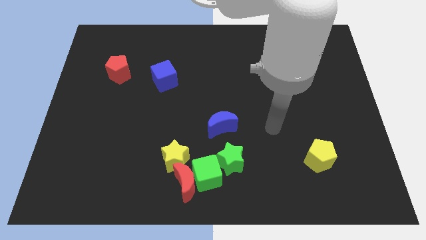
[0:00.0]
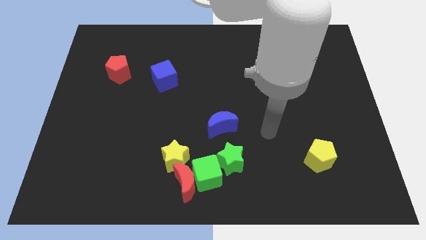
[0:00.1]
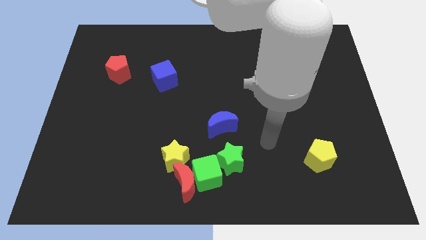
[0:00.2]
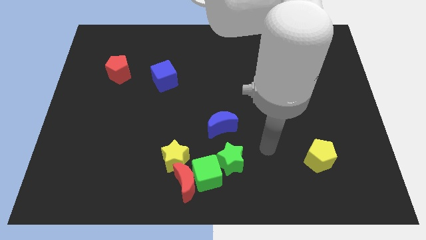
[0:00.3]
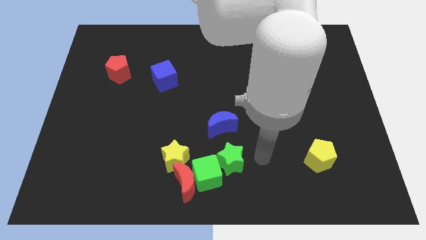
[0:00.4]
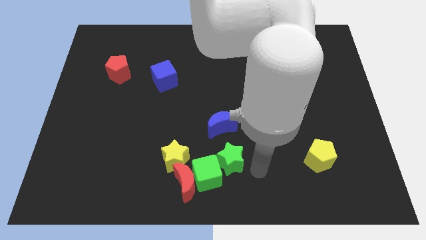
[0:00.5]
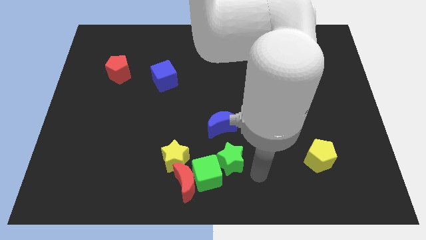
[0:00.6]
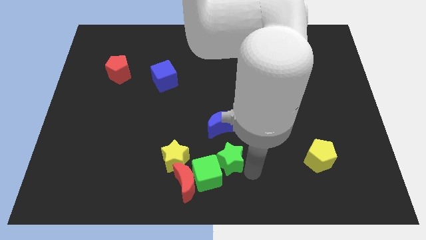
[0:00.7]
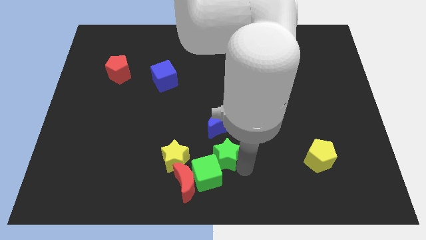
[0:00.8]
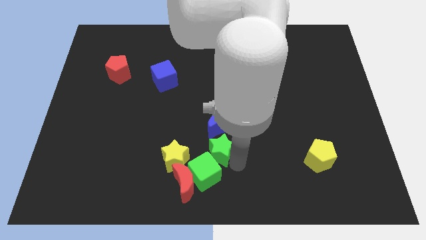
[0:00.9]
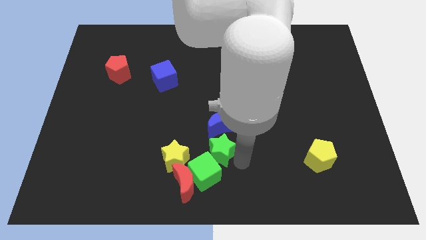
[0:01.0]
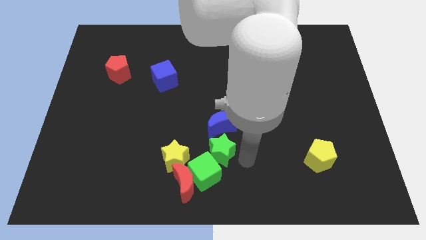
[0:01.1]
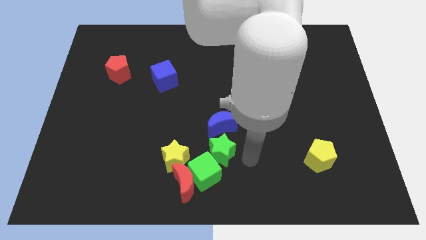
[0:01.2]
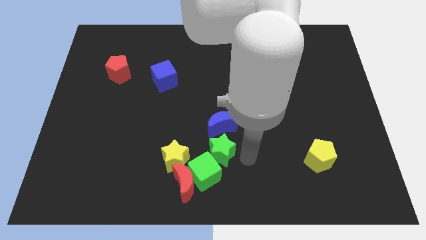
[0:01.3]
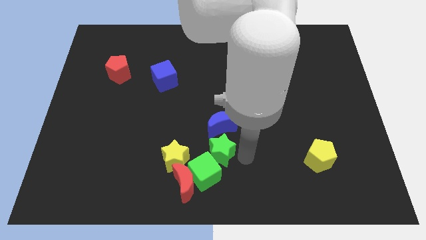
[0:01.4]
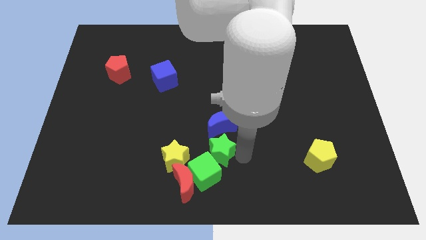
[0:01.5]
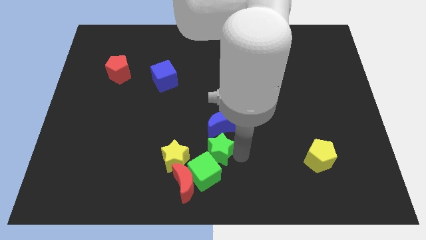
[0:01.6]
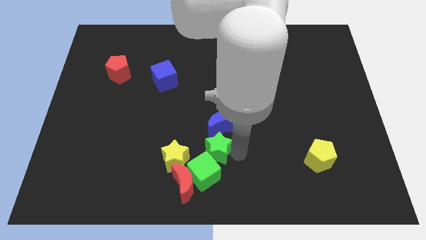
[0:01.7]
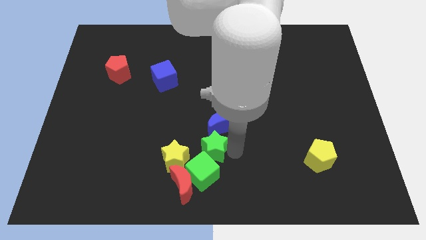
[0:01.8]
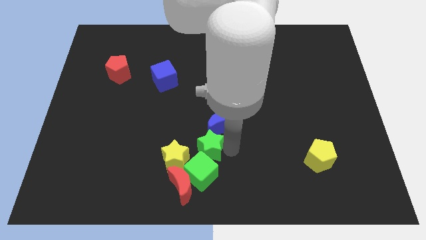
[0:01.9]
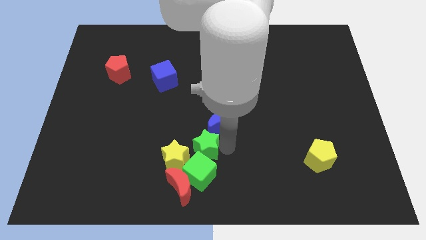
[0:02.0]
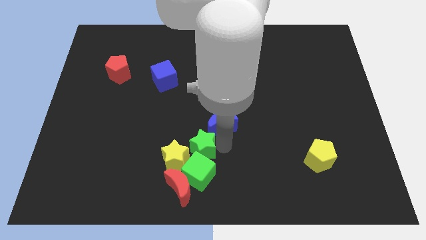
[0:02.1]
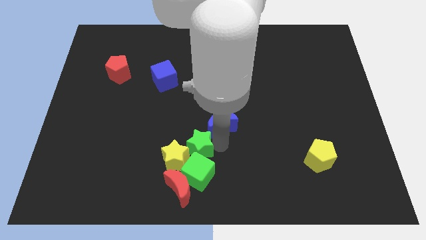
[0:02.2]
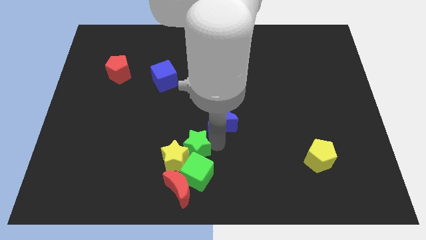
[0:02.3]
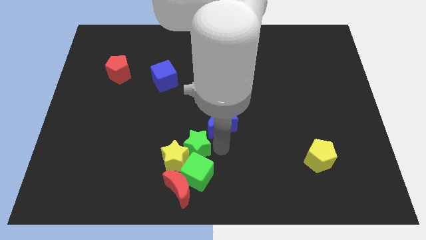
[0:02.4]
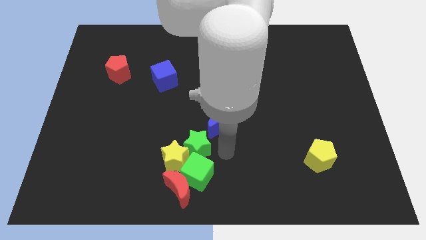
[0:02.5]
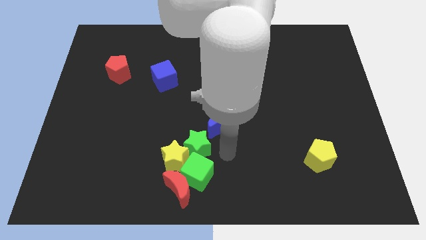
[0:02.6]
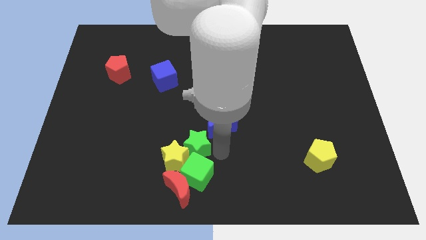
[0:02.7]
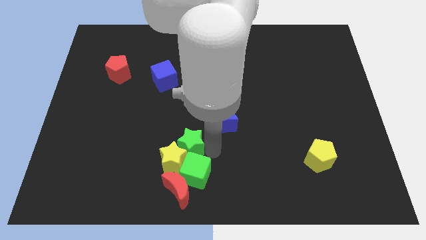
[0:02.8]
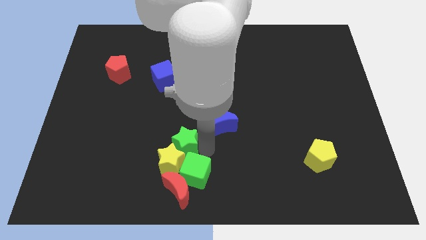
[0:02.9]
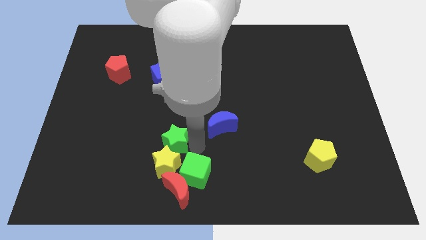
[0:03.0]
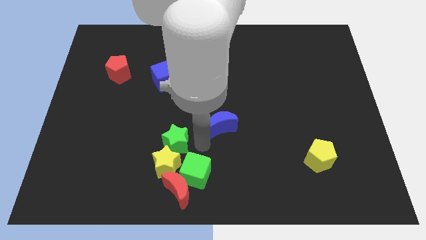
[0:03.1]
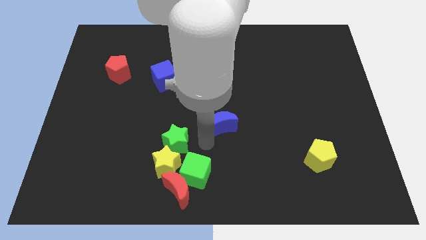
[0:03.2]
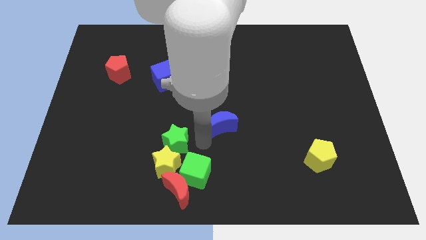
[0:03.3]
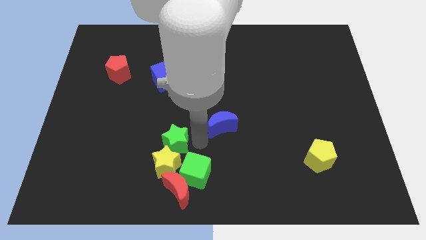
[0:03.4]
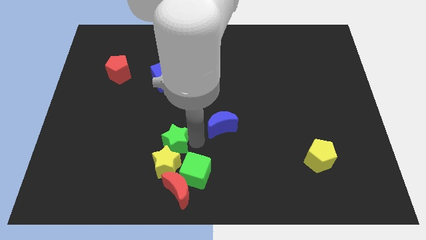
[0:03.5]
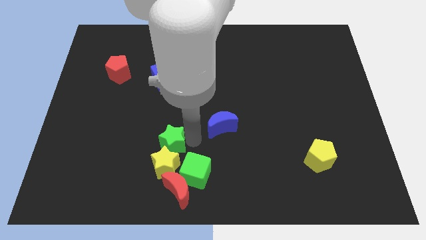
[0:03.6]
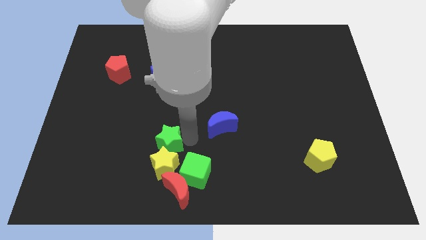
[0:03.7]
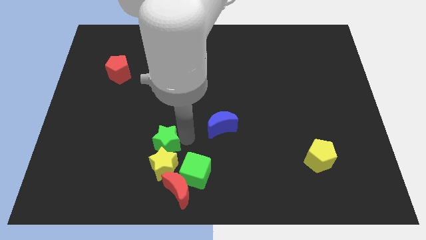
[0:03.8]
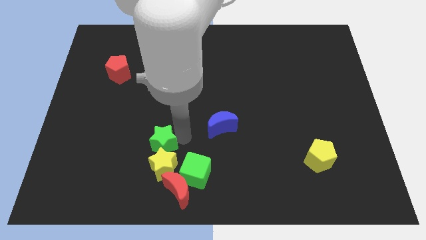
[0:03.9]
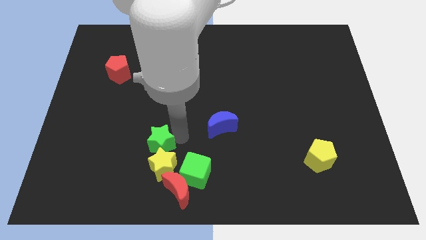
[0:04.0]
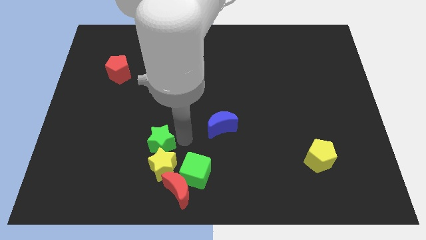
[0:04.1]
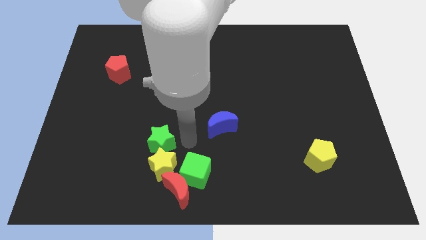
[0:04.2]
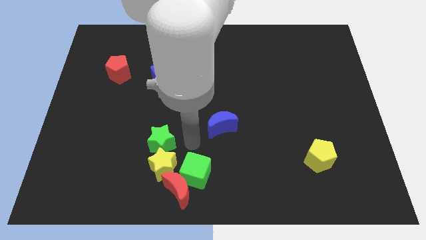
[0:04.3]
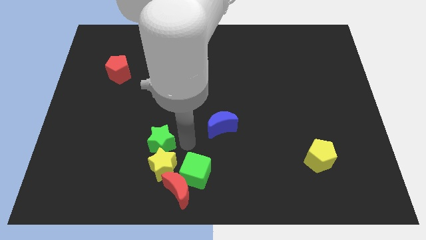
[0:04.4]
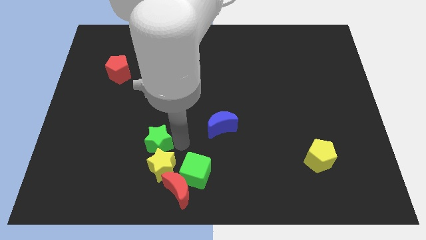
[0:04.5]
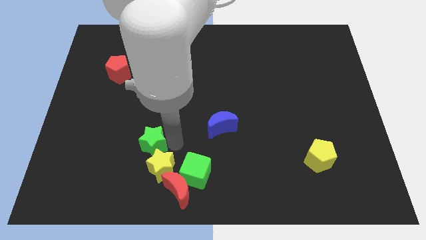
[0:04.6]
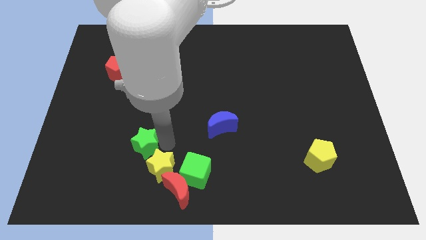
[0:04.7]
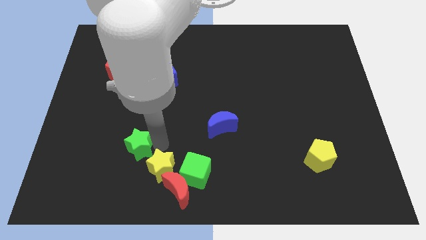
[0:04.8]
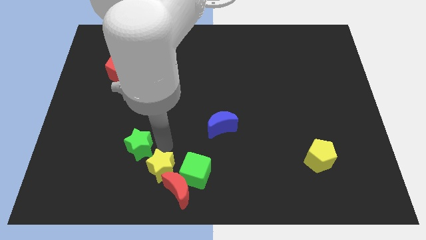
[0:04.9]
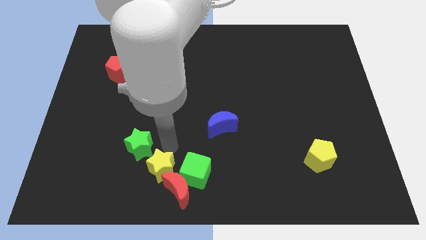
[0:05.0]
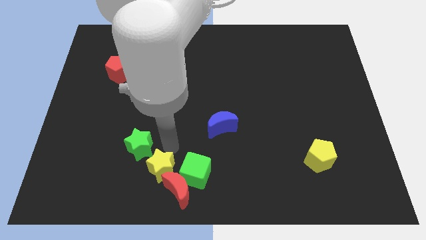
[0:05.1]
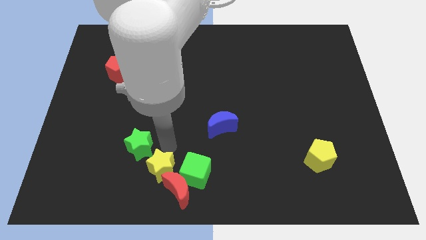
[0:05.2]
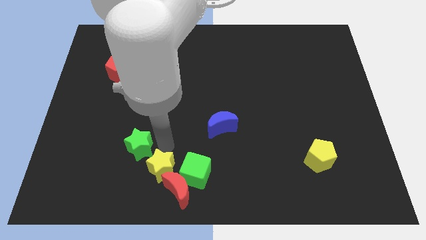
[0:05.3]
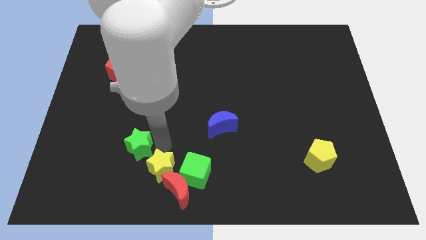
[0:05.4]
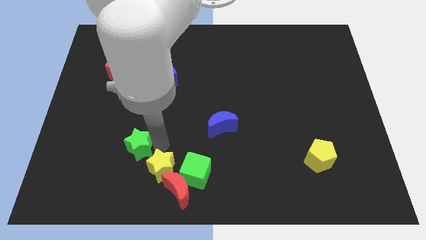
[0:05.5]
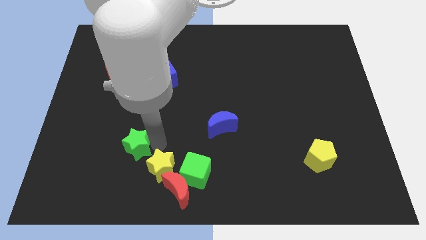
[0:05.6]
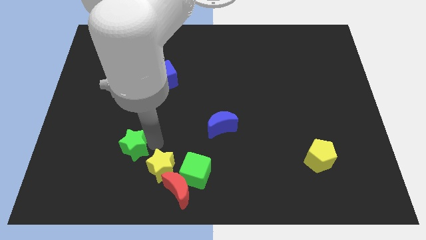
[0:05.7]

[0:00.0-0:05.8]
slide the green star left

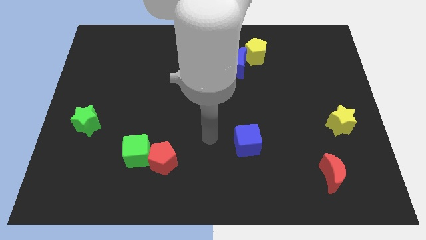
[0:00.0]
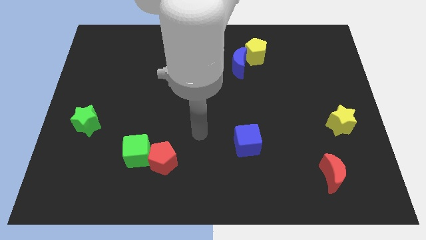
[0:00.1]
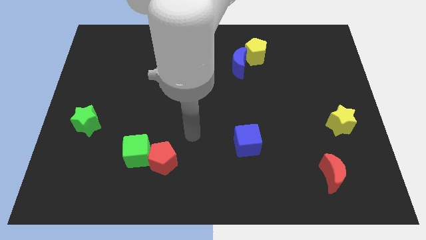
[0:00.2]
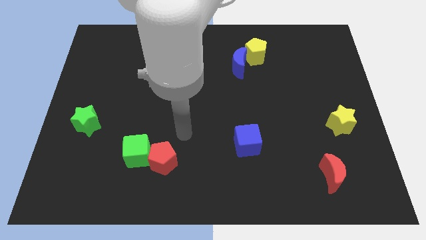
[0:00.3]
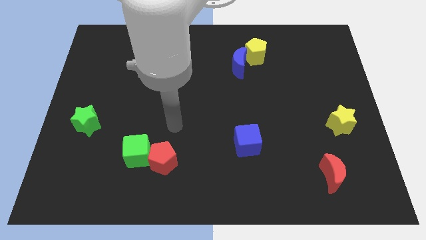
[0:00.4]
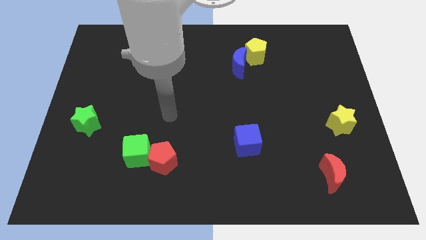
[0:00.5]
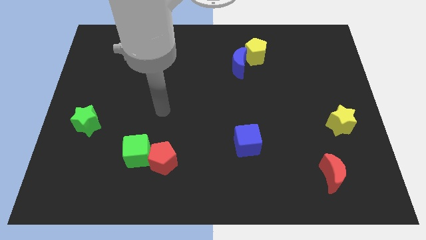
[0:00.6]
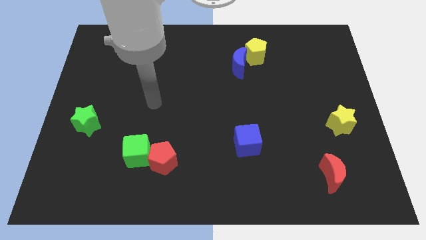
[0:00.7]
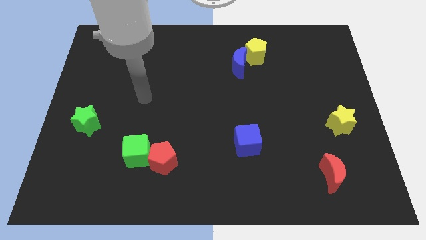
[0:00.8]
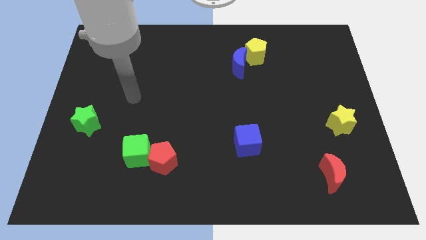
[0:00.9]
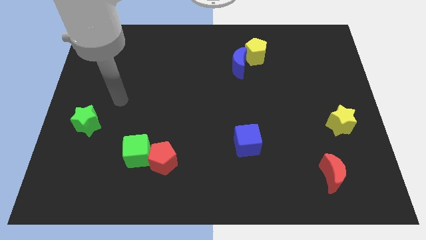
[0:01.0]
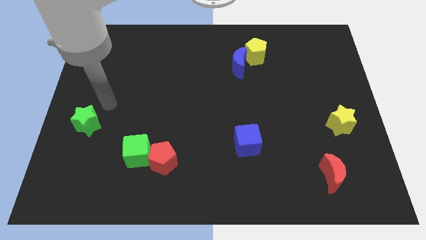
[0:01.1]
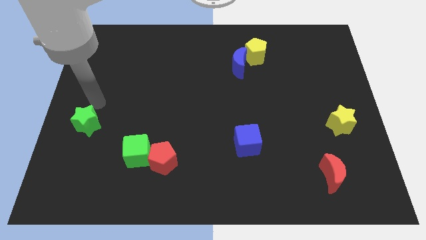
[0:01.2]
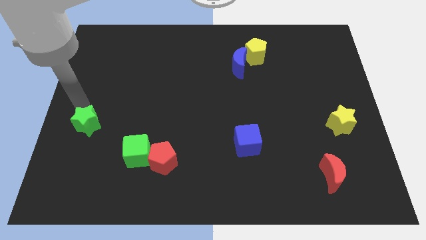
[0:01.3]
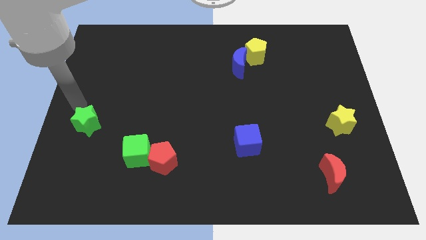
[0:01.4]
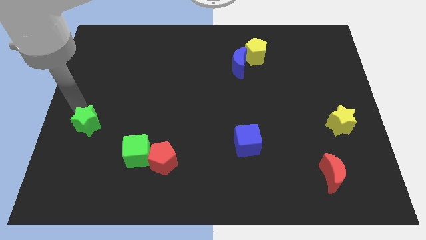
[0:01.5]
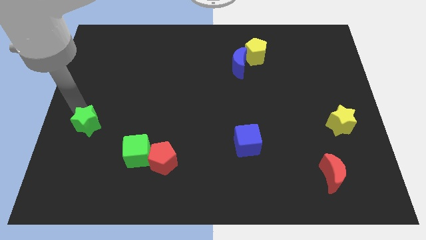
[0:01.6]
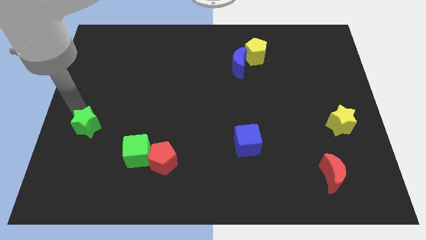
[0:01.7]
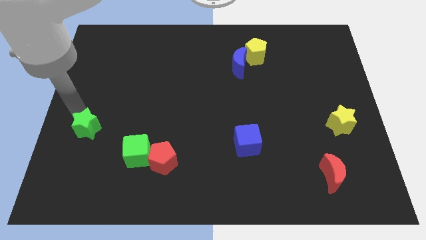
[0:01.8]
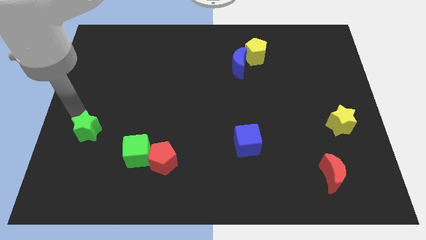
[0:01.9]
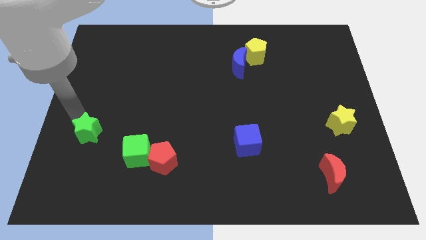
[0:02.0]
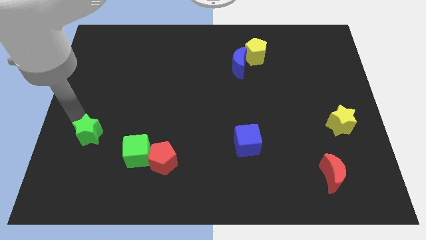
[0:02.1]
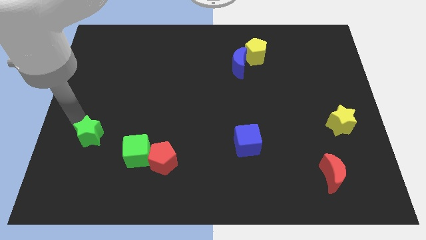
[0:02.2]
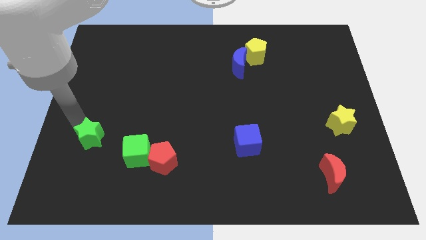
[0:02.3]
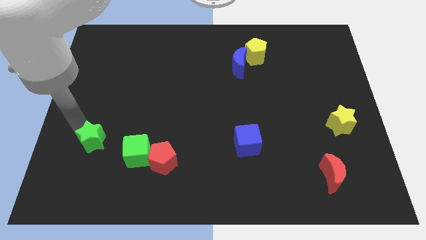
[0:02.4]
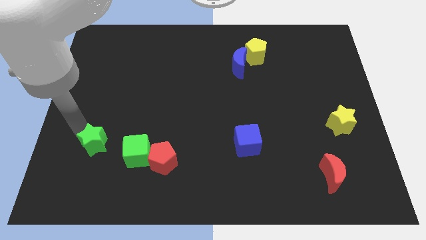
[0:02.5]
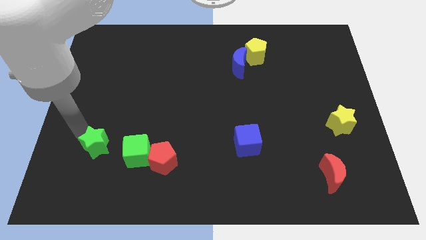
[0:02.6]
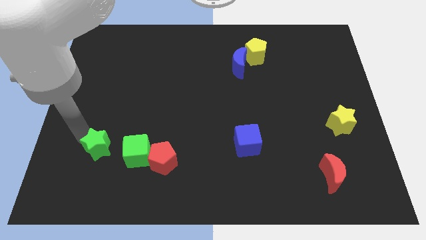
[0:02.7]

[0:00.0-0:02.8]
move the green star diagonally downwards and to the right a little bit
